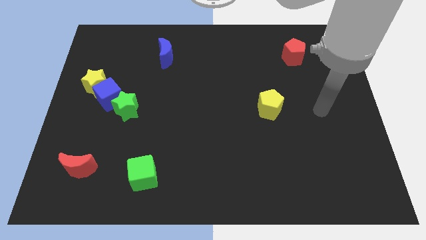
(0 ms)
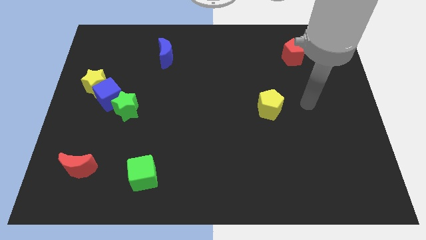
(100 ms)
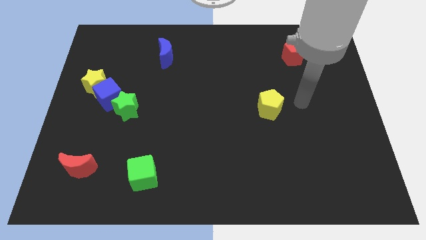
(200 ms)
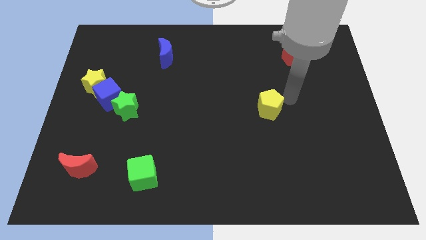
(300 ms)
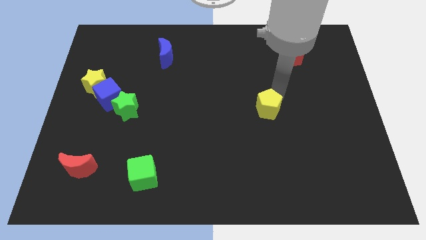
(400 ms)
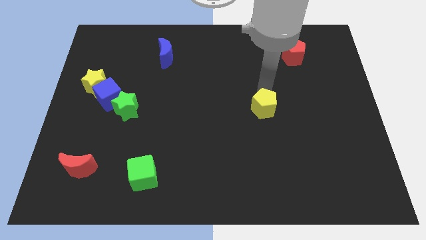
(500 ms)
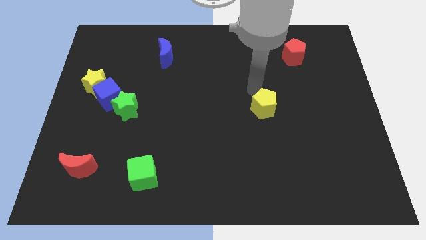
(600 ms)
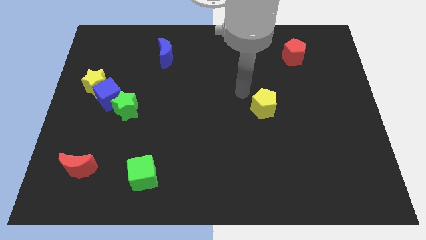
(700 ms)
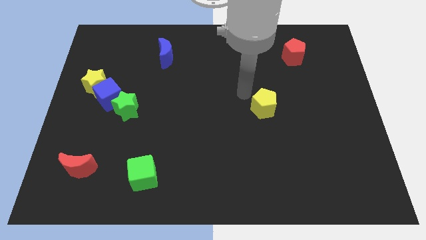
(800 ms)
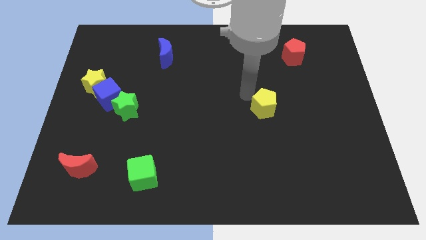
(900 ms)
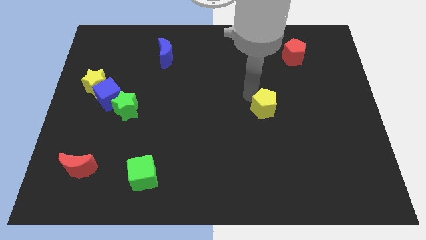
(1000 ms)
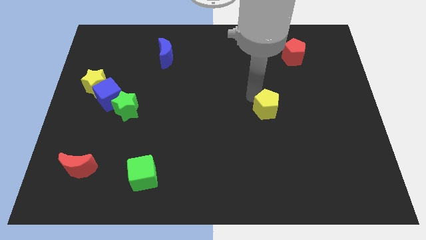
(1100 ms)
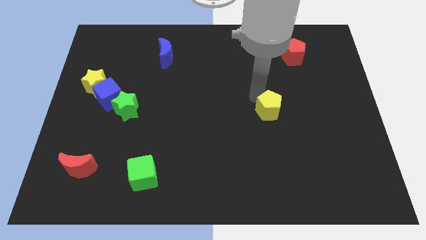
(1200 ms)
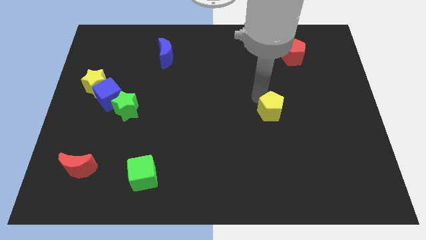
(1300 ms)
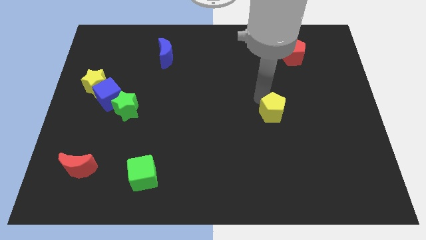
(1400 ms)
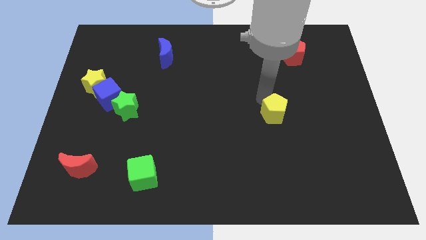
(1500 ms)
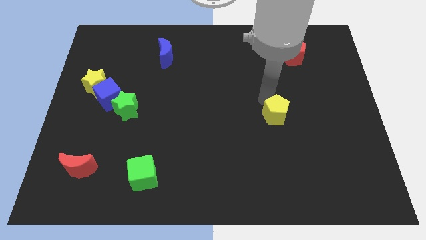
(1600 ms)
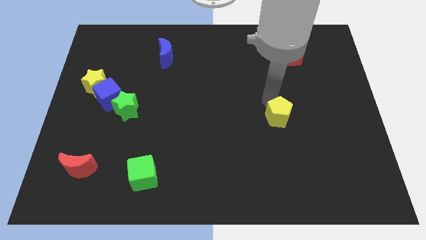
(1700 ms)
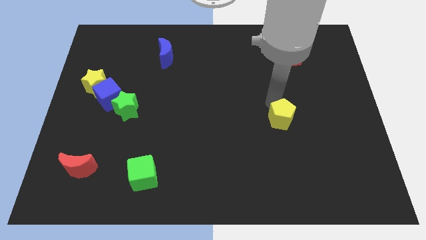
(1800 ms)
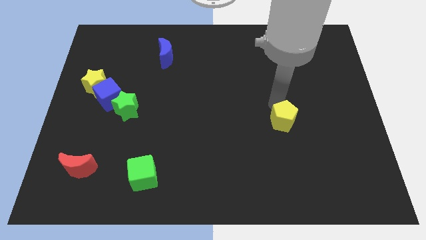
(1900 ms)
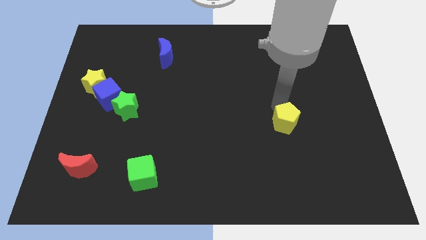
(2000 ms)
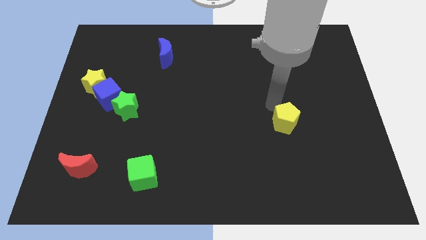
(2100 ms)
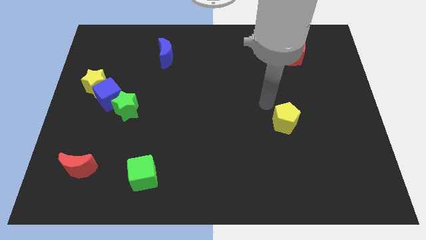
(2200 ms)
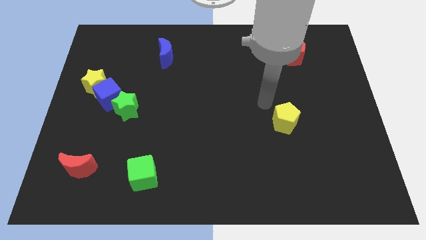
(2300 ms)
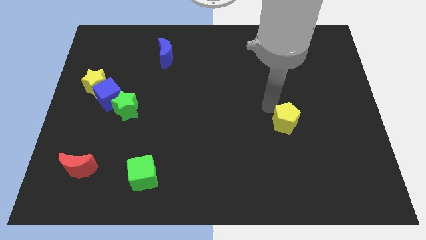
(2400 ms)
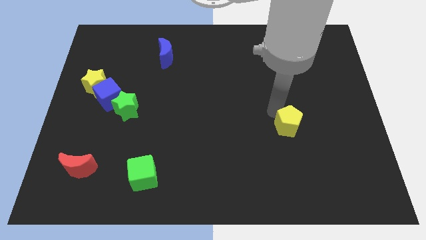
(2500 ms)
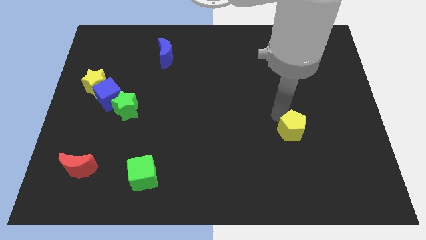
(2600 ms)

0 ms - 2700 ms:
slide the yellow pentagon down and to the right diagonally a little bit

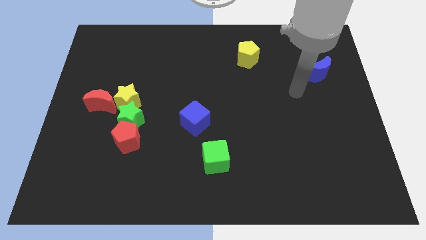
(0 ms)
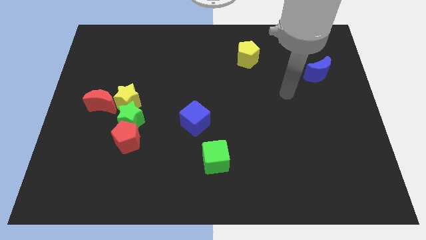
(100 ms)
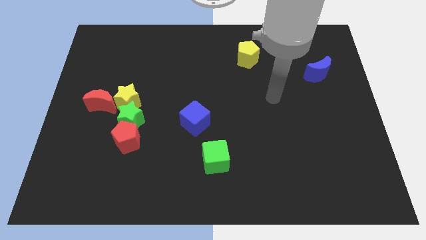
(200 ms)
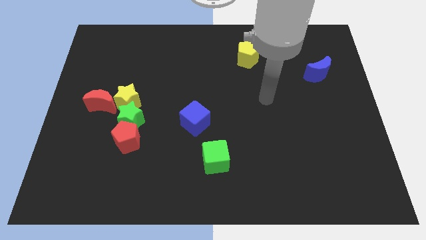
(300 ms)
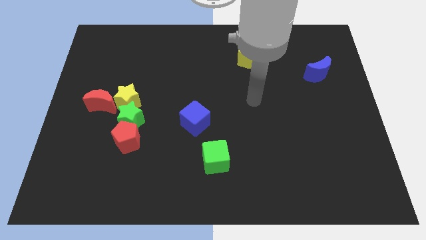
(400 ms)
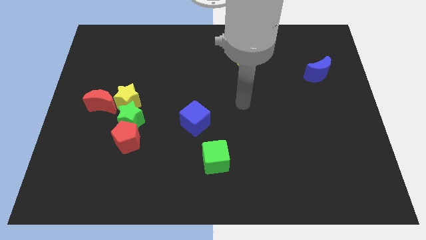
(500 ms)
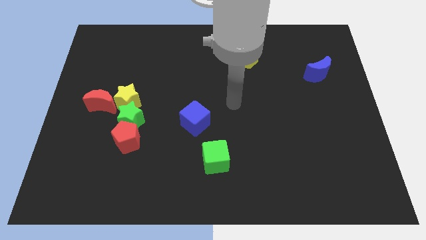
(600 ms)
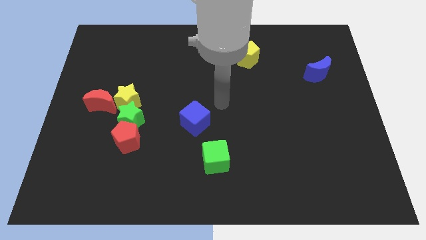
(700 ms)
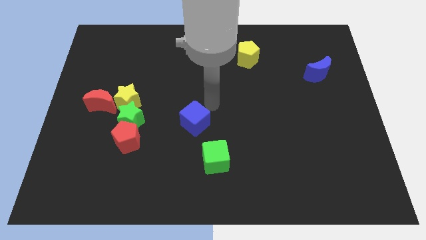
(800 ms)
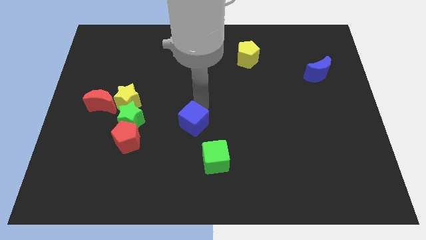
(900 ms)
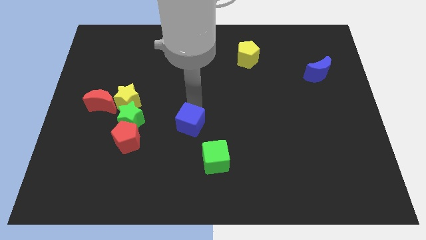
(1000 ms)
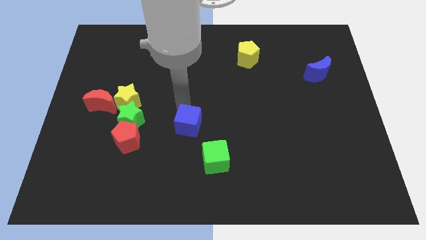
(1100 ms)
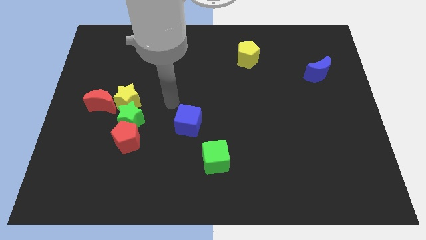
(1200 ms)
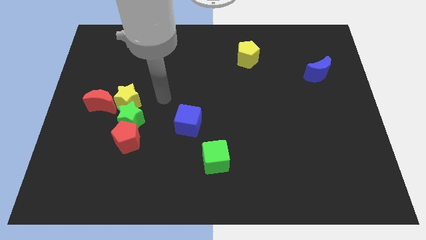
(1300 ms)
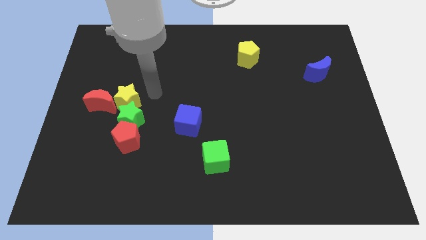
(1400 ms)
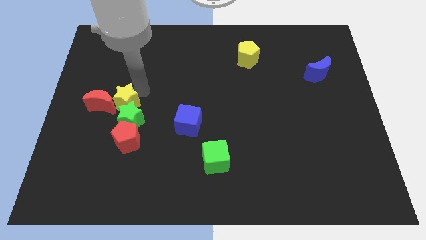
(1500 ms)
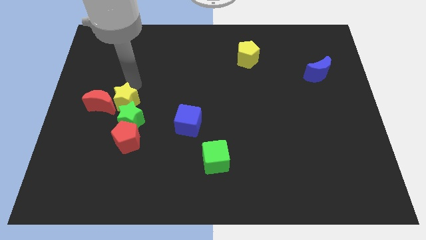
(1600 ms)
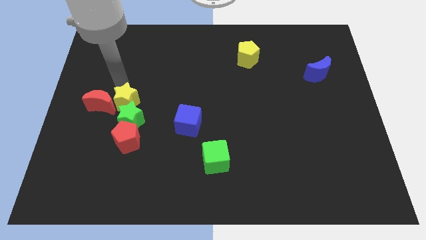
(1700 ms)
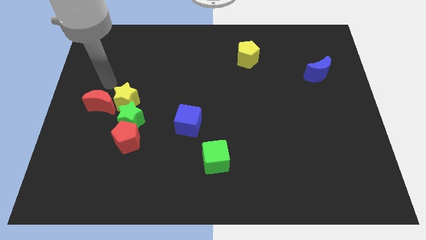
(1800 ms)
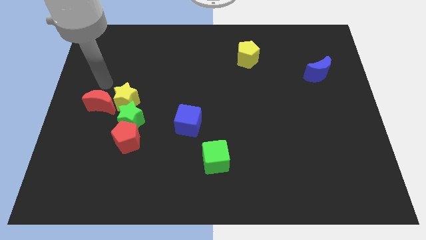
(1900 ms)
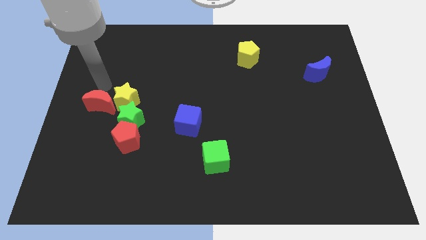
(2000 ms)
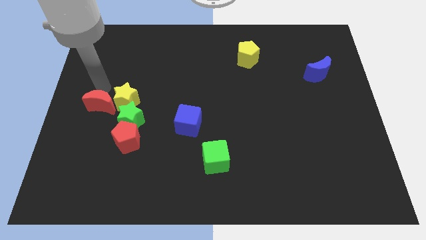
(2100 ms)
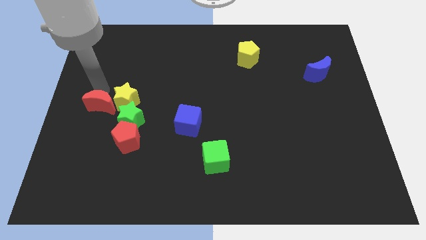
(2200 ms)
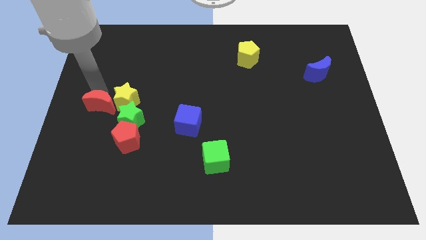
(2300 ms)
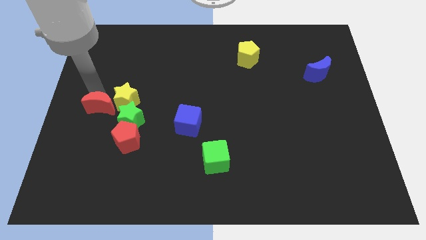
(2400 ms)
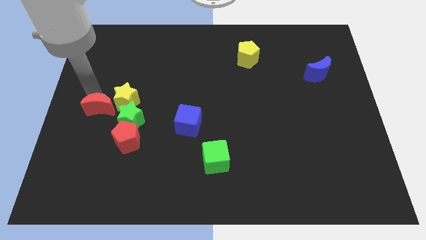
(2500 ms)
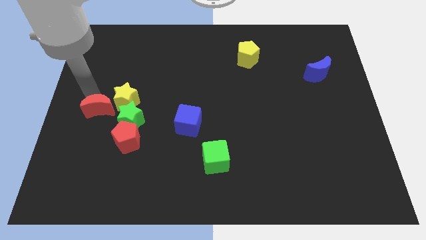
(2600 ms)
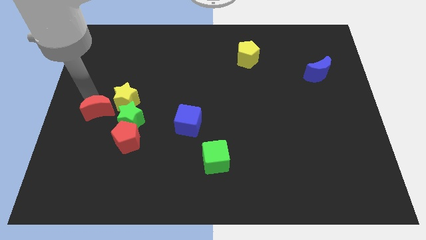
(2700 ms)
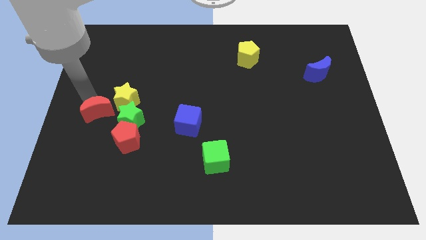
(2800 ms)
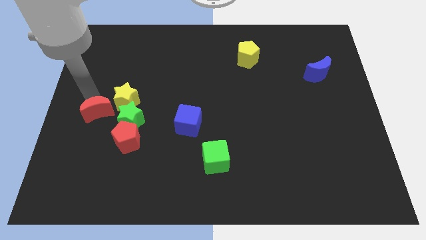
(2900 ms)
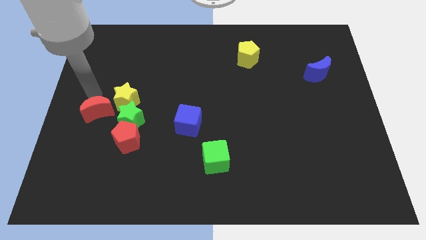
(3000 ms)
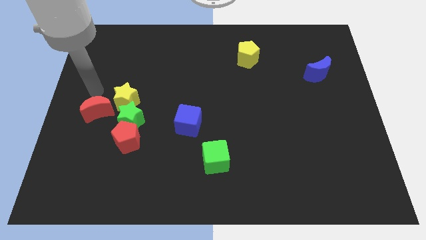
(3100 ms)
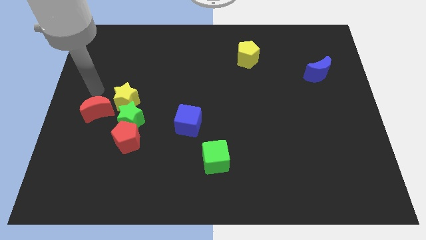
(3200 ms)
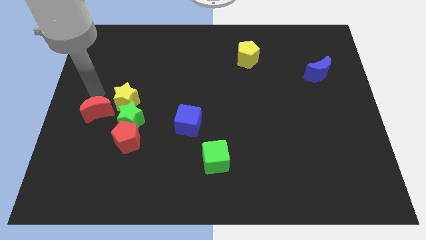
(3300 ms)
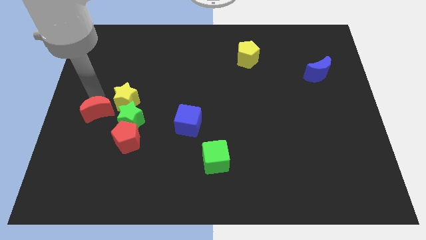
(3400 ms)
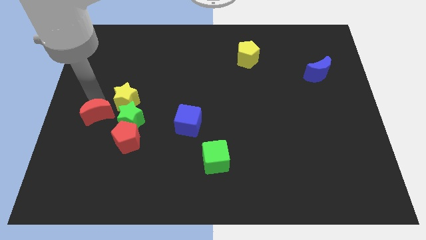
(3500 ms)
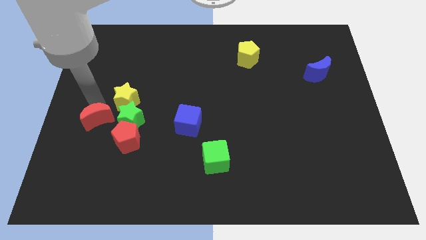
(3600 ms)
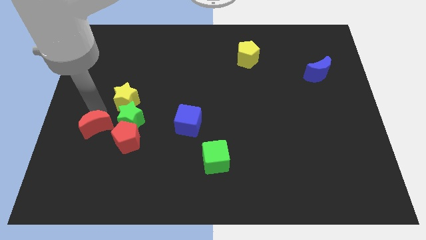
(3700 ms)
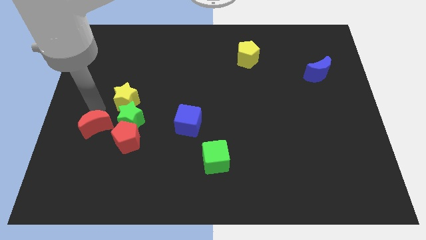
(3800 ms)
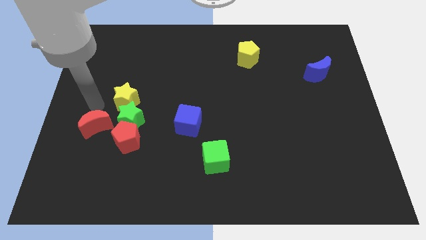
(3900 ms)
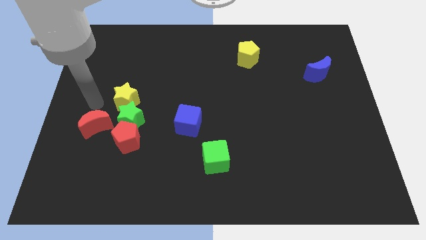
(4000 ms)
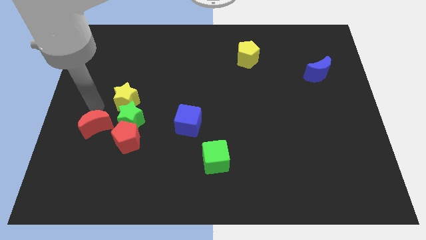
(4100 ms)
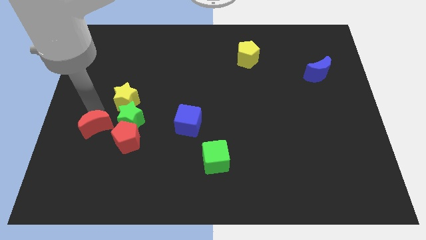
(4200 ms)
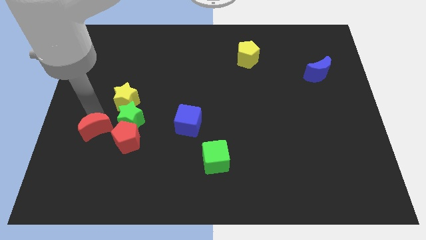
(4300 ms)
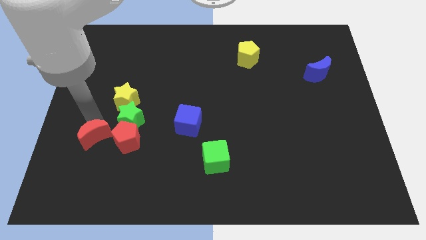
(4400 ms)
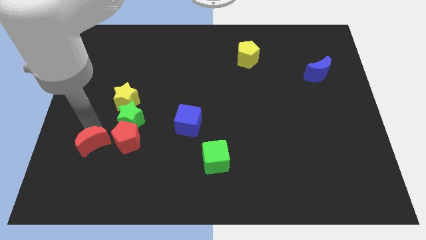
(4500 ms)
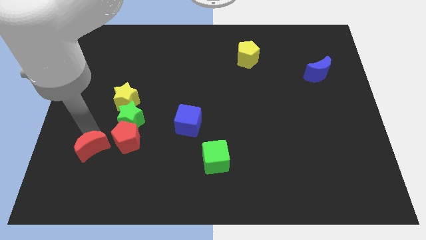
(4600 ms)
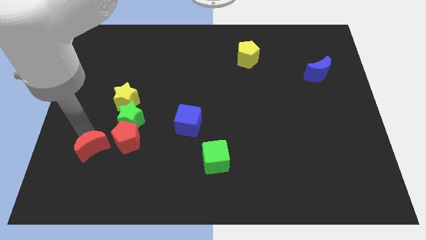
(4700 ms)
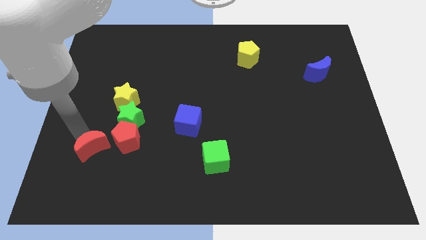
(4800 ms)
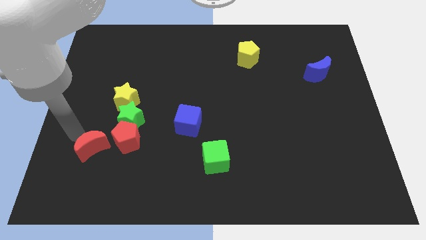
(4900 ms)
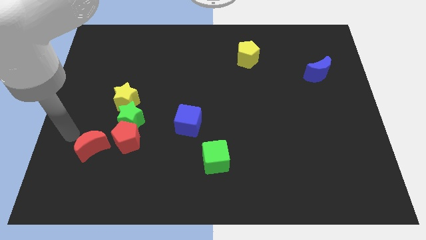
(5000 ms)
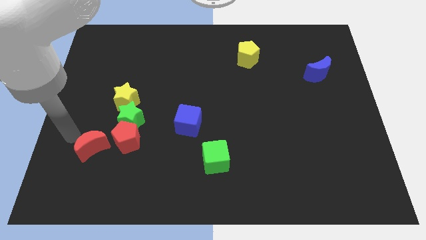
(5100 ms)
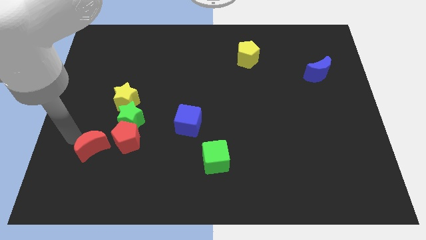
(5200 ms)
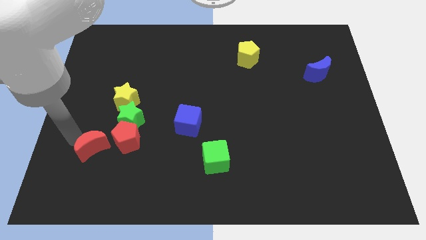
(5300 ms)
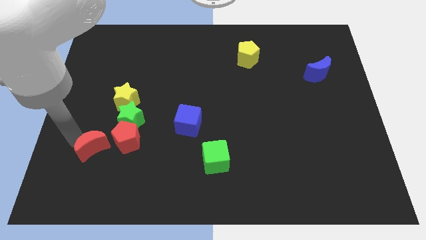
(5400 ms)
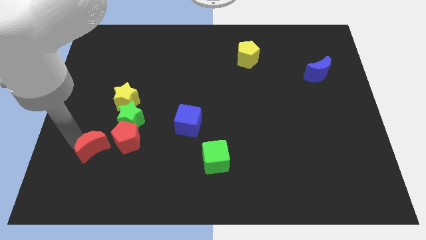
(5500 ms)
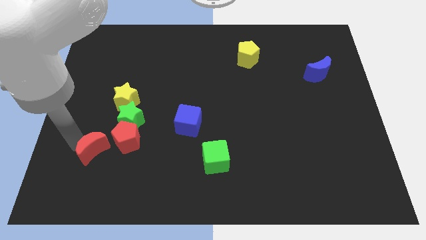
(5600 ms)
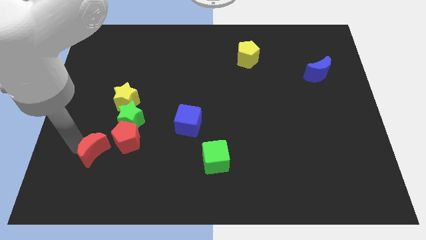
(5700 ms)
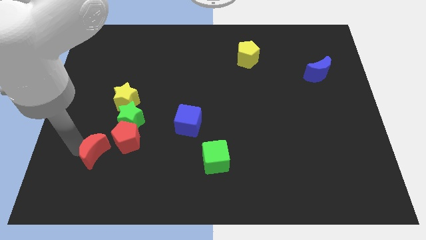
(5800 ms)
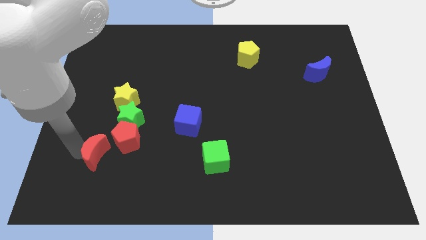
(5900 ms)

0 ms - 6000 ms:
slide the red moon down and to the right diagonally a little bit
